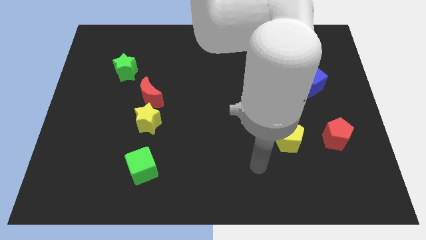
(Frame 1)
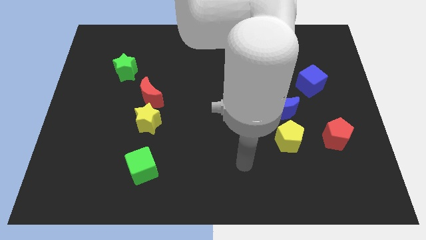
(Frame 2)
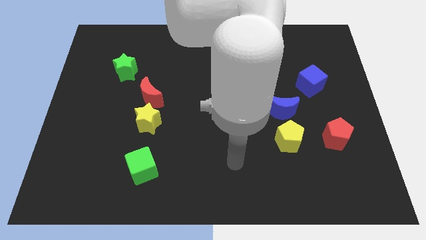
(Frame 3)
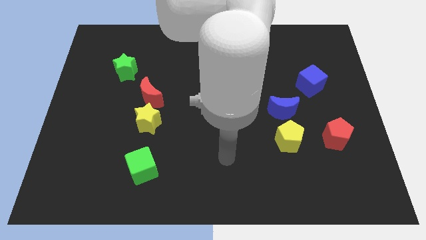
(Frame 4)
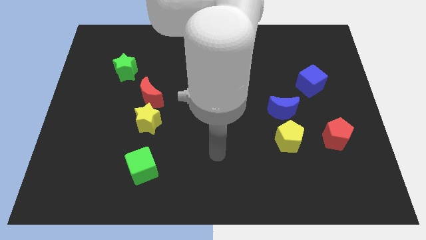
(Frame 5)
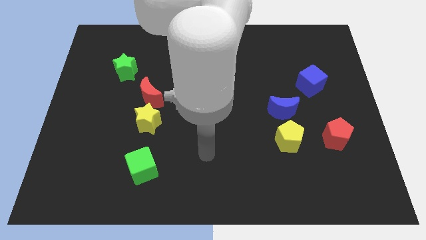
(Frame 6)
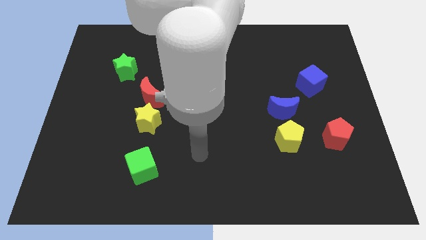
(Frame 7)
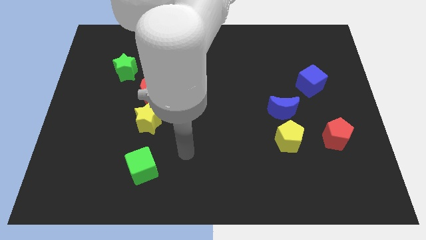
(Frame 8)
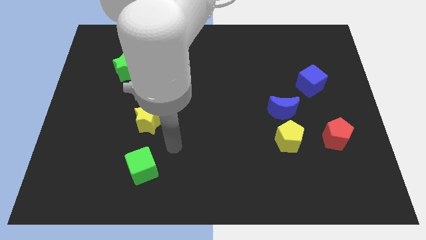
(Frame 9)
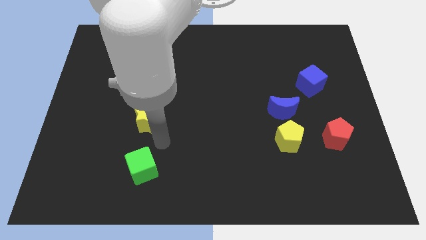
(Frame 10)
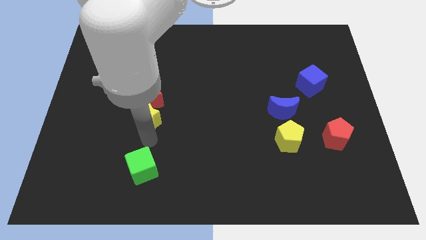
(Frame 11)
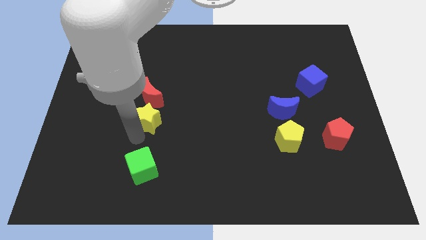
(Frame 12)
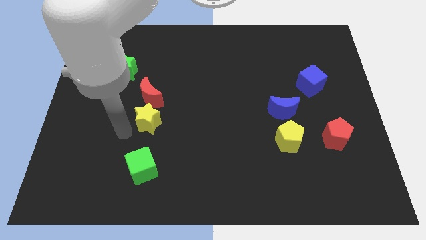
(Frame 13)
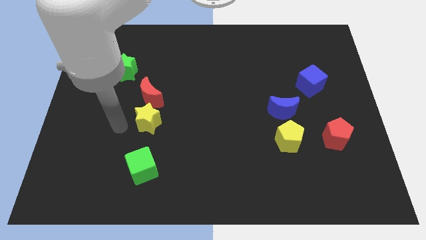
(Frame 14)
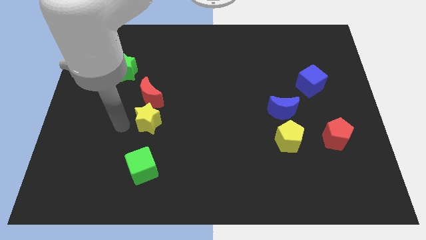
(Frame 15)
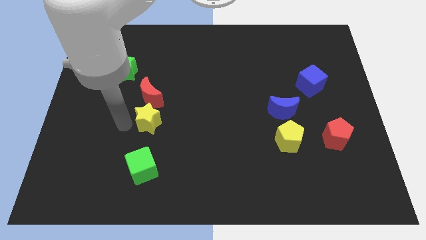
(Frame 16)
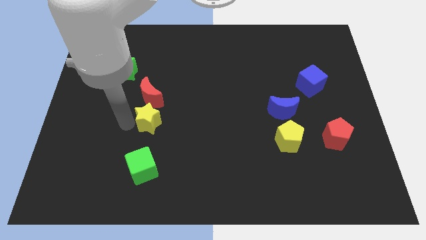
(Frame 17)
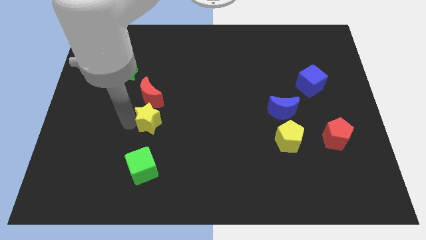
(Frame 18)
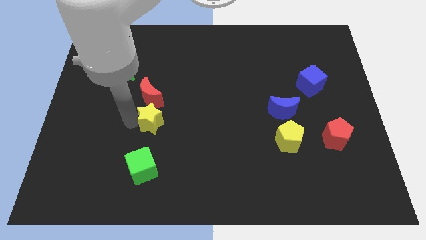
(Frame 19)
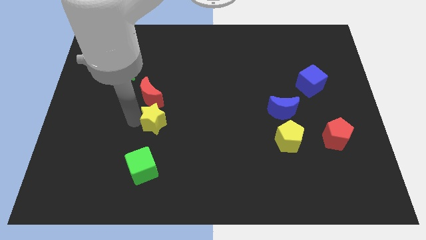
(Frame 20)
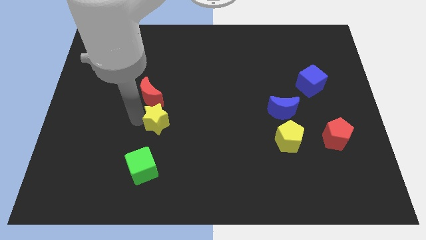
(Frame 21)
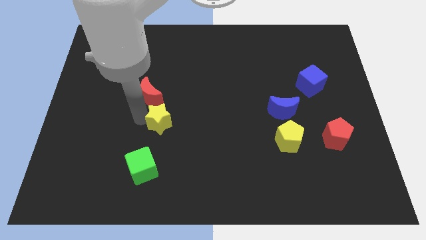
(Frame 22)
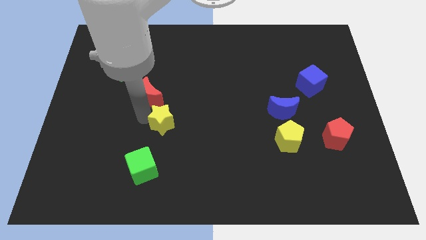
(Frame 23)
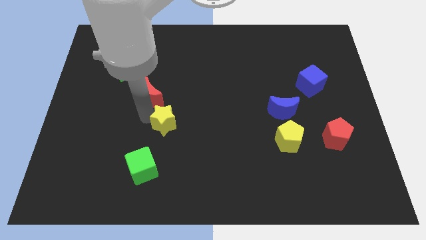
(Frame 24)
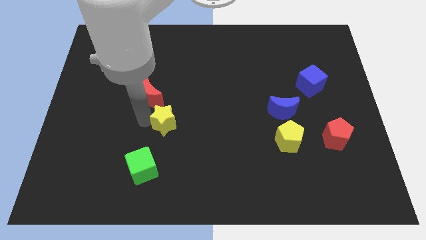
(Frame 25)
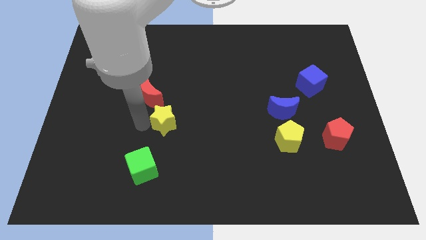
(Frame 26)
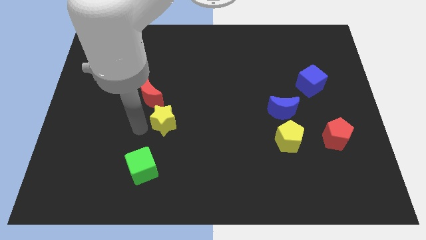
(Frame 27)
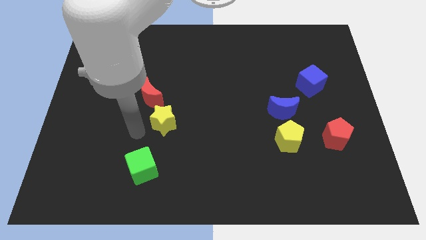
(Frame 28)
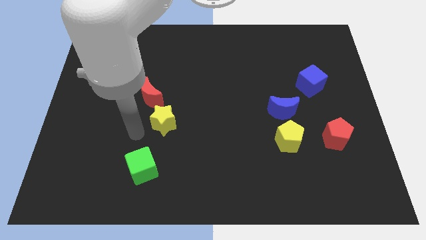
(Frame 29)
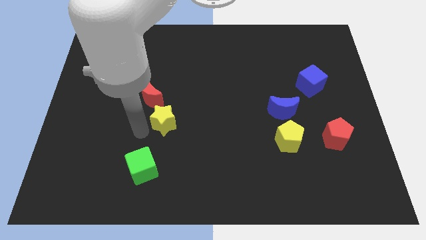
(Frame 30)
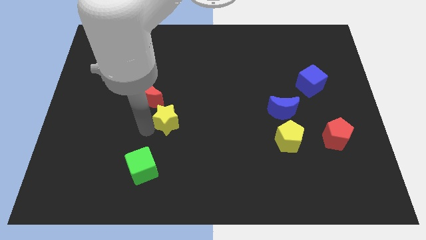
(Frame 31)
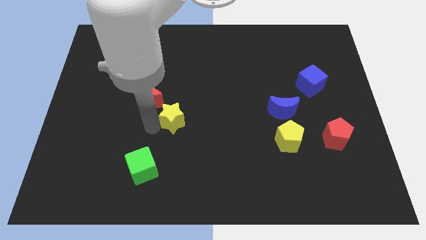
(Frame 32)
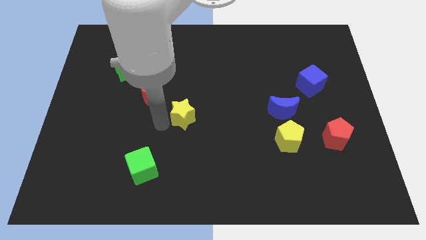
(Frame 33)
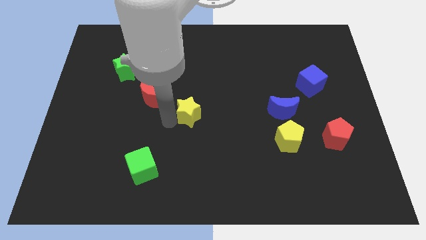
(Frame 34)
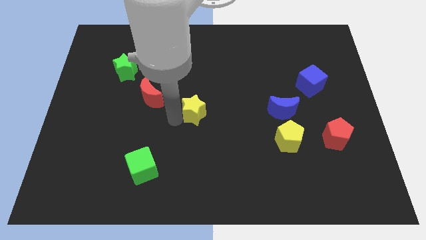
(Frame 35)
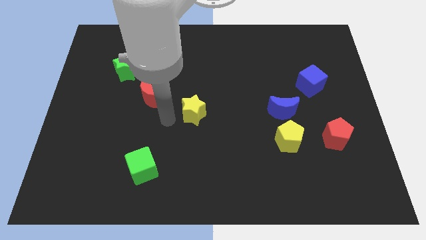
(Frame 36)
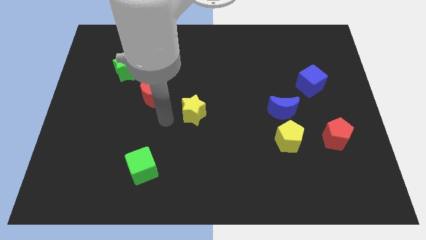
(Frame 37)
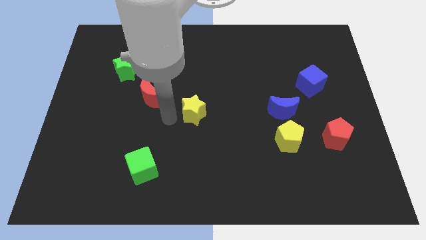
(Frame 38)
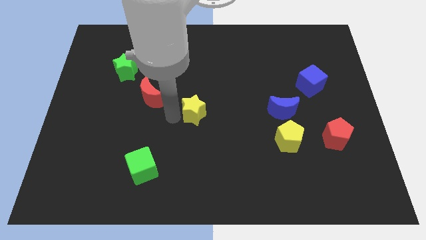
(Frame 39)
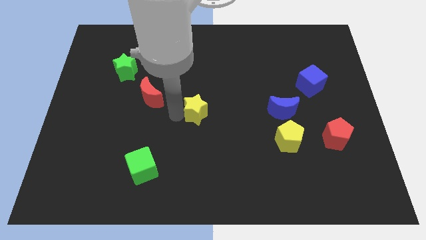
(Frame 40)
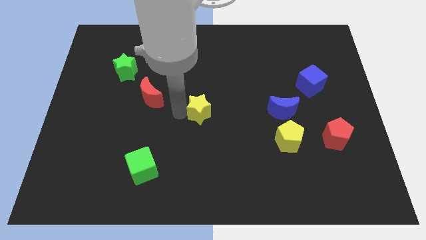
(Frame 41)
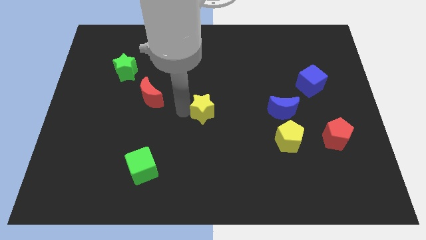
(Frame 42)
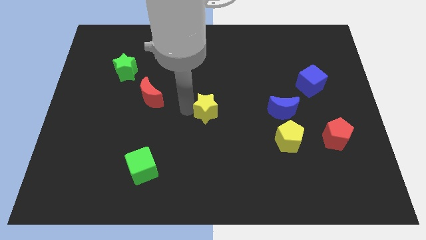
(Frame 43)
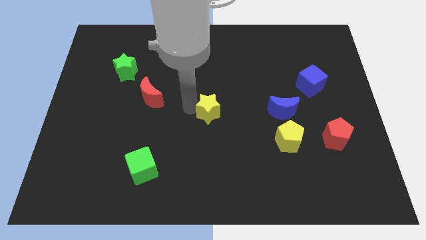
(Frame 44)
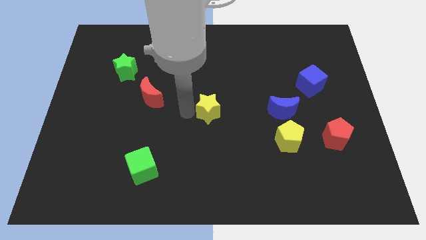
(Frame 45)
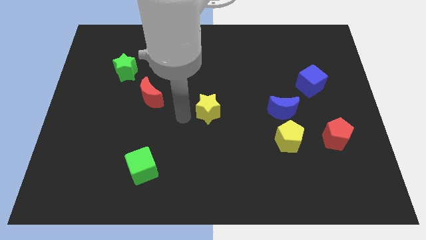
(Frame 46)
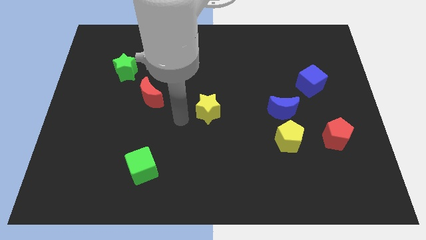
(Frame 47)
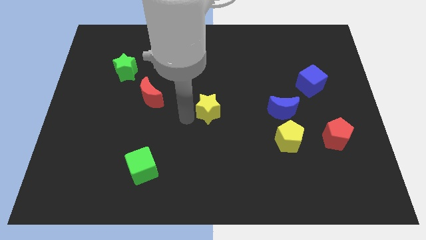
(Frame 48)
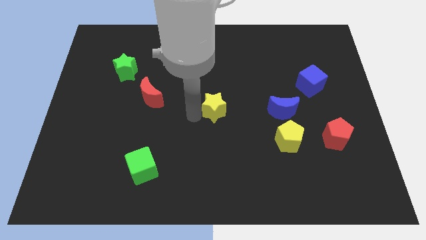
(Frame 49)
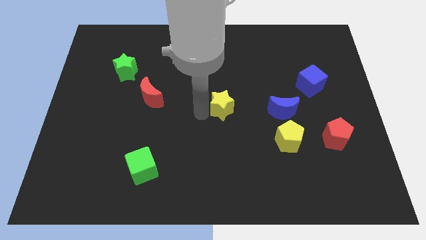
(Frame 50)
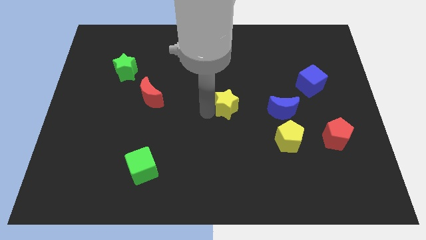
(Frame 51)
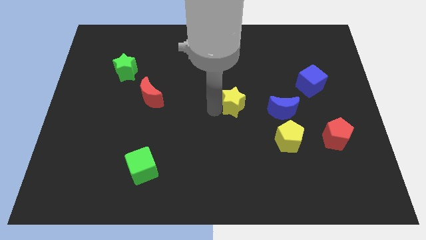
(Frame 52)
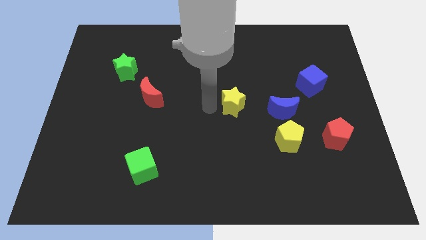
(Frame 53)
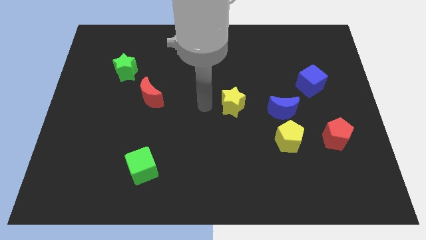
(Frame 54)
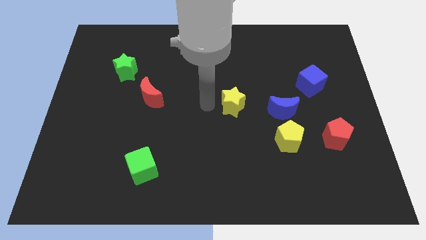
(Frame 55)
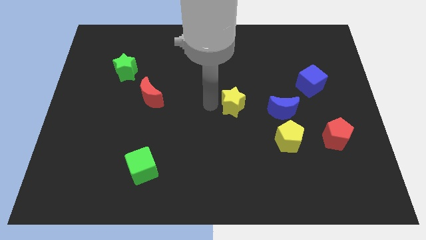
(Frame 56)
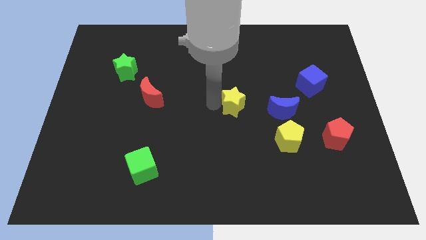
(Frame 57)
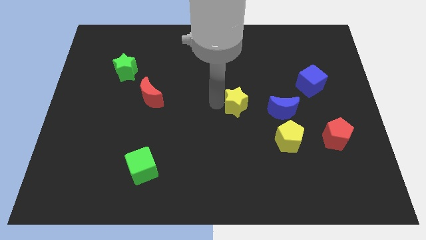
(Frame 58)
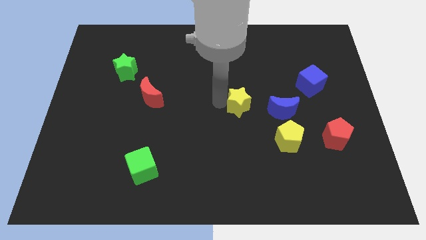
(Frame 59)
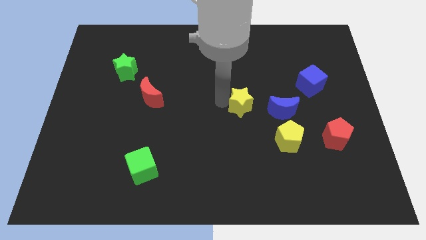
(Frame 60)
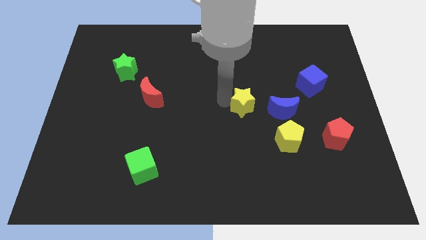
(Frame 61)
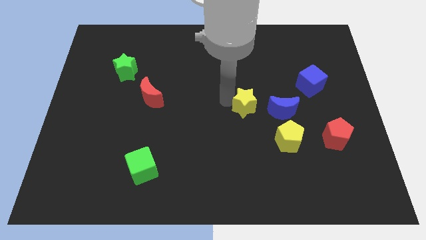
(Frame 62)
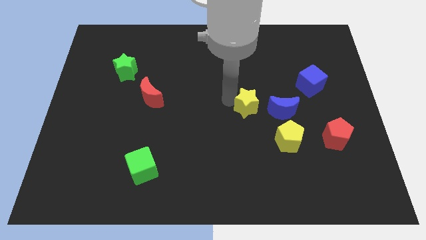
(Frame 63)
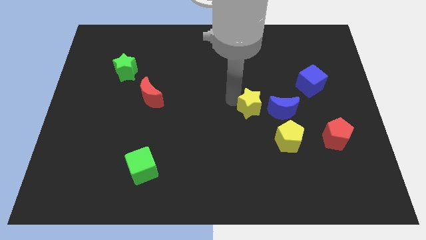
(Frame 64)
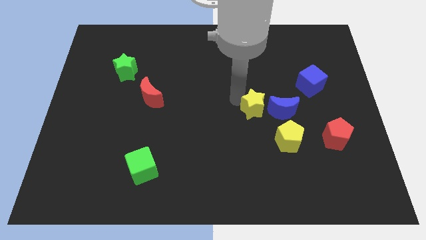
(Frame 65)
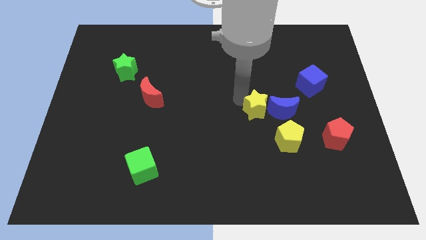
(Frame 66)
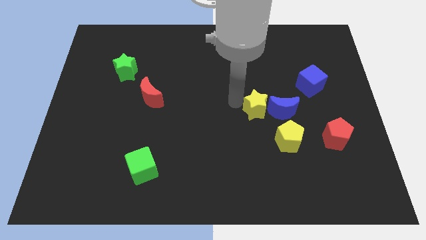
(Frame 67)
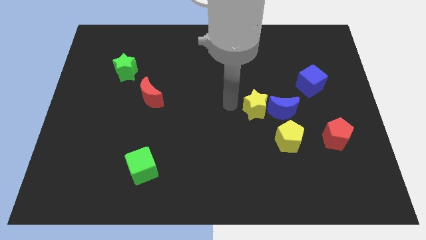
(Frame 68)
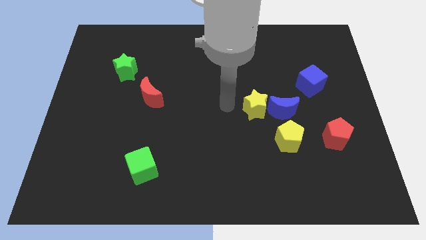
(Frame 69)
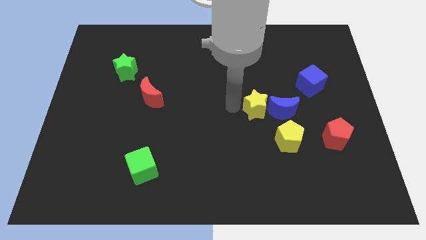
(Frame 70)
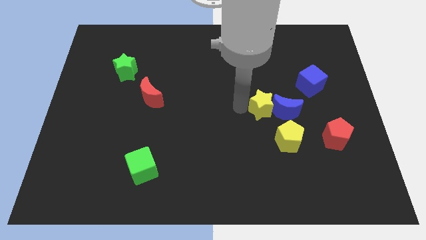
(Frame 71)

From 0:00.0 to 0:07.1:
move the yellow star towards the blue moon
